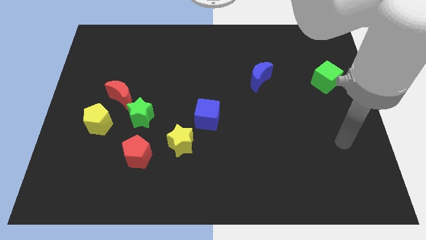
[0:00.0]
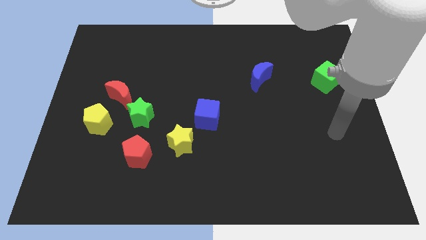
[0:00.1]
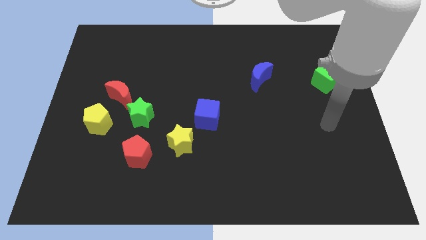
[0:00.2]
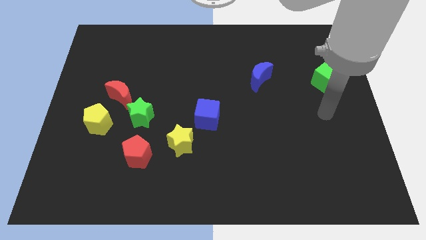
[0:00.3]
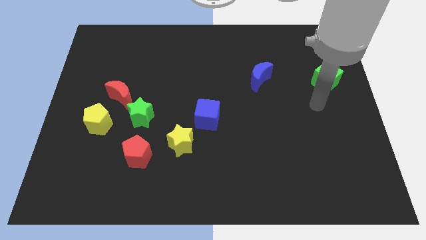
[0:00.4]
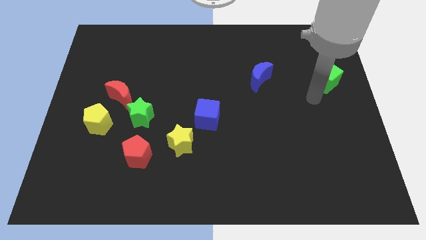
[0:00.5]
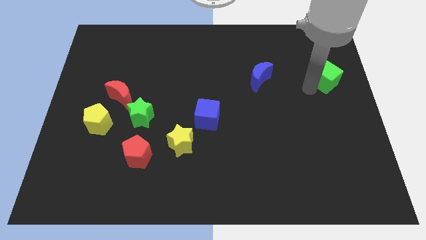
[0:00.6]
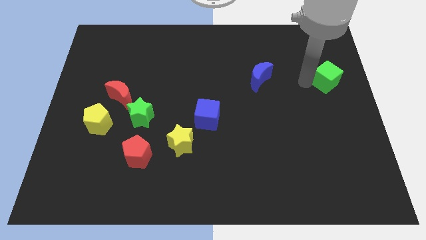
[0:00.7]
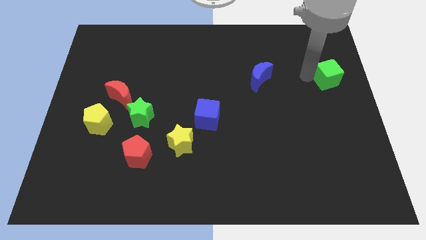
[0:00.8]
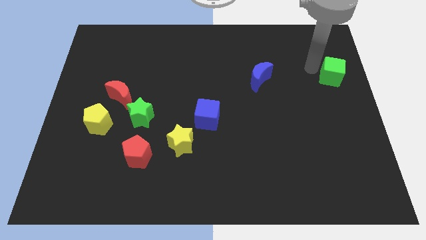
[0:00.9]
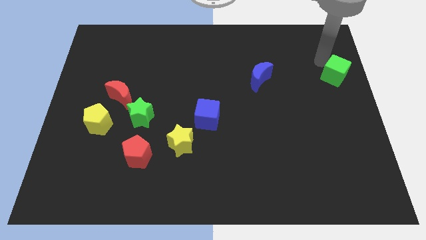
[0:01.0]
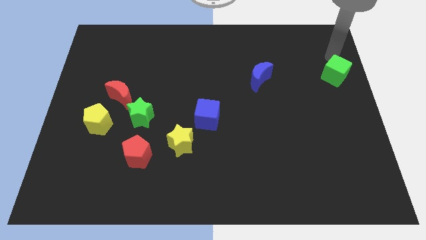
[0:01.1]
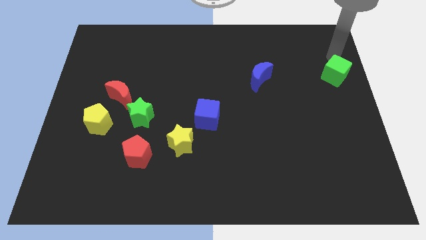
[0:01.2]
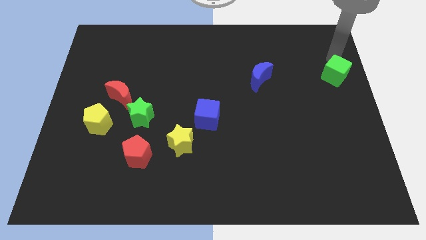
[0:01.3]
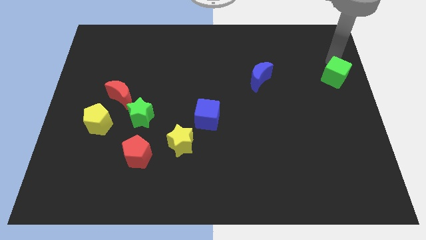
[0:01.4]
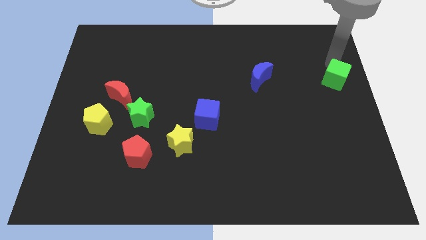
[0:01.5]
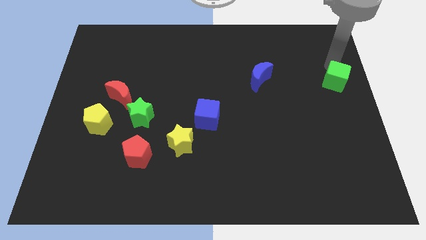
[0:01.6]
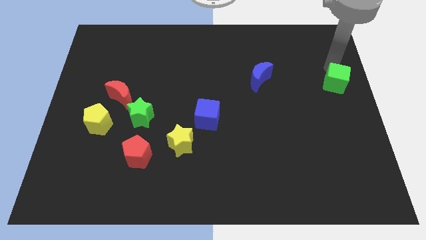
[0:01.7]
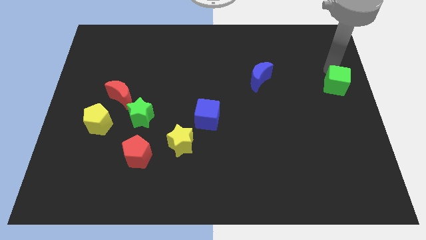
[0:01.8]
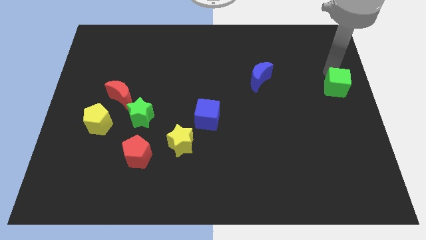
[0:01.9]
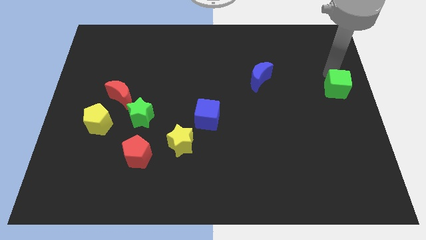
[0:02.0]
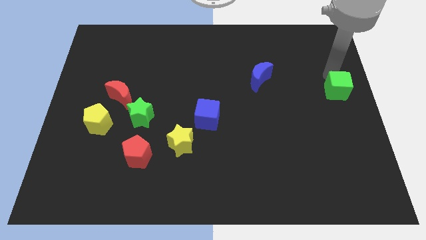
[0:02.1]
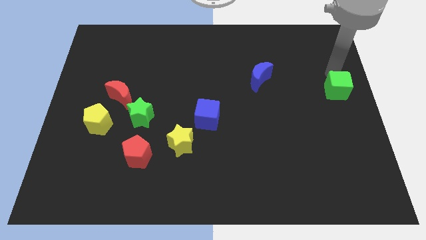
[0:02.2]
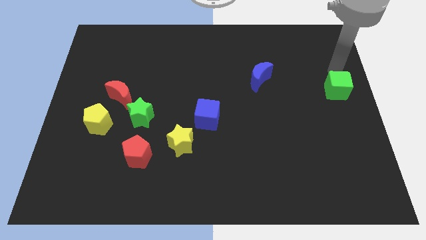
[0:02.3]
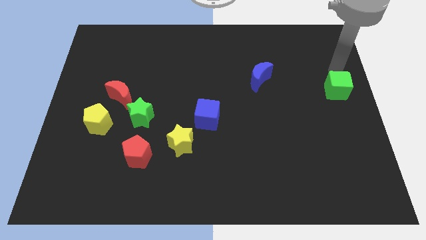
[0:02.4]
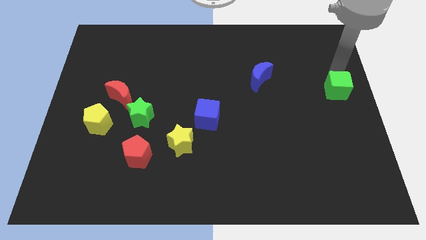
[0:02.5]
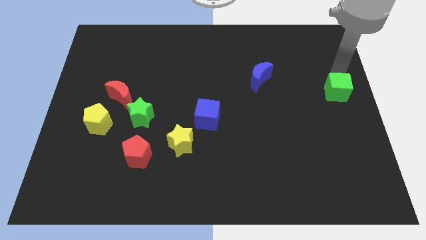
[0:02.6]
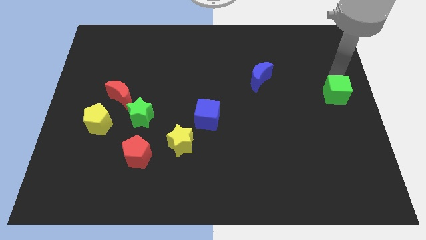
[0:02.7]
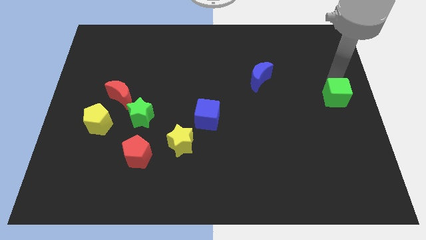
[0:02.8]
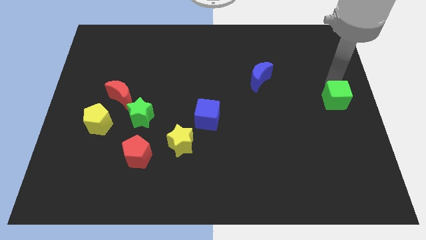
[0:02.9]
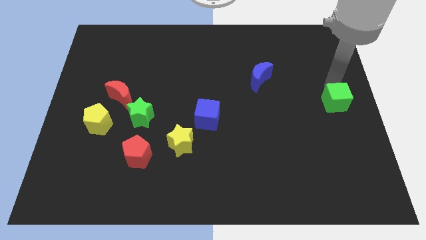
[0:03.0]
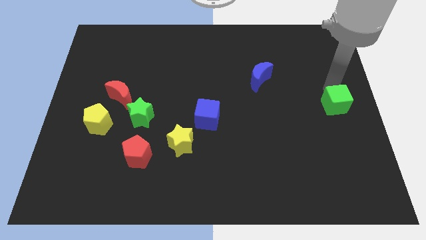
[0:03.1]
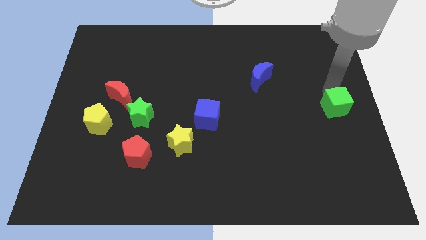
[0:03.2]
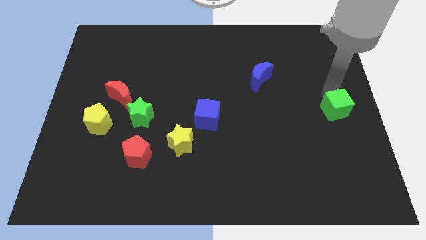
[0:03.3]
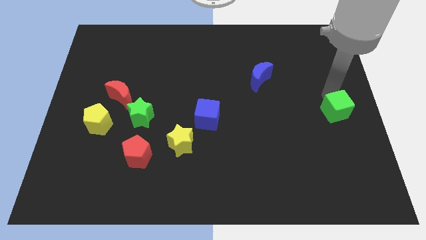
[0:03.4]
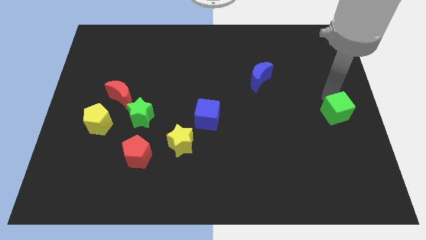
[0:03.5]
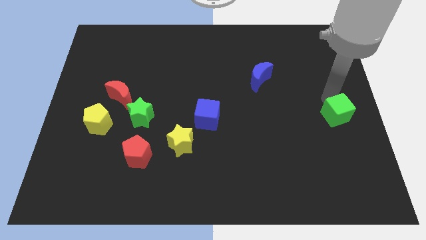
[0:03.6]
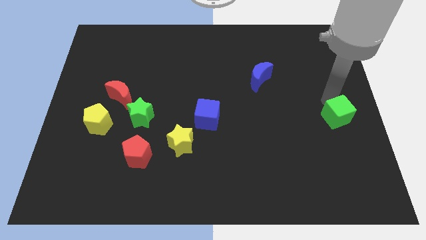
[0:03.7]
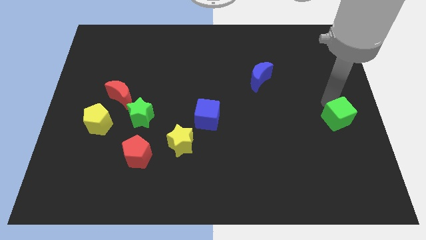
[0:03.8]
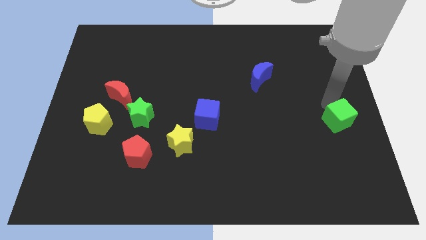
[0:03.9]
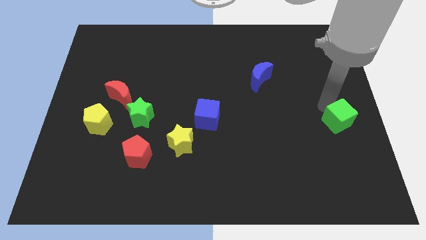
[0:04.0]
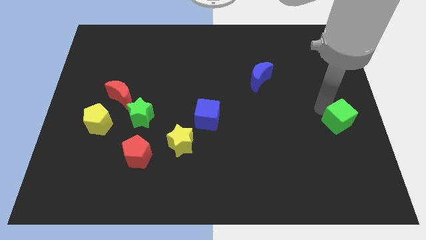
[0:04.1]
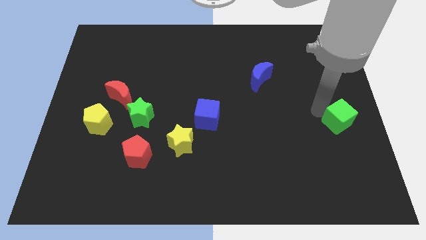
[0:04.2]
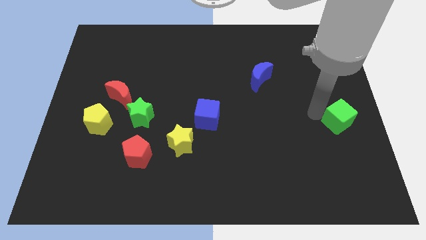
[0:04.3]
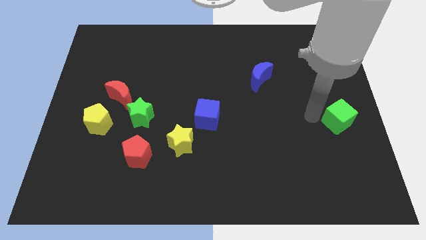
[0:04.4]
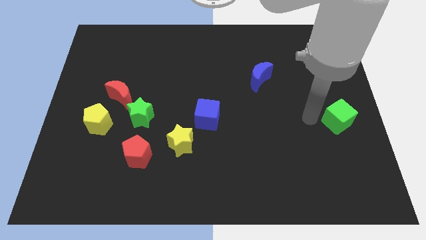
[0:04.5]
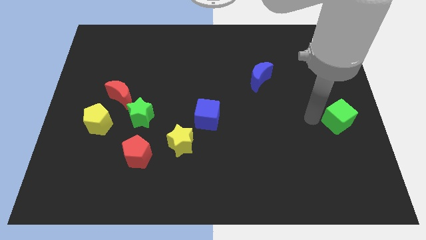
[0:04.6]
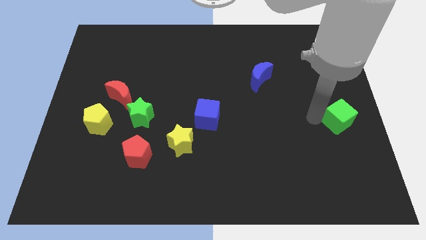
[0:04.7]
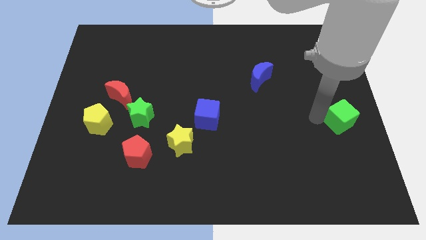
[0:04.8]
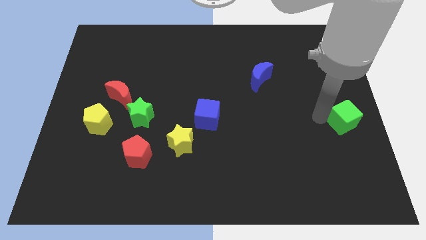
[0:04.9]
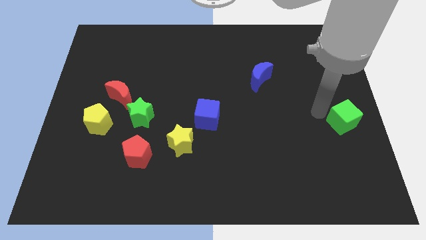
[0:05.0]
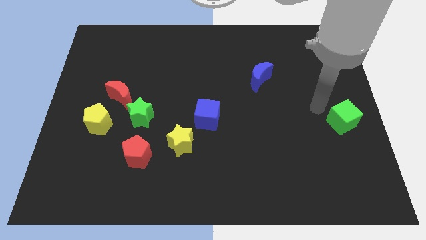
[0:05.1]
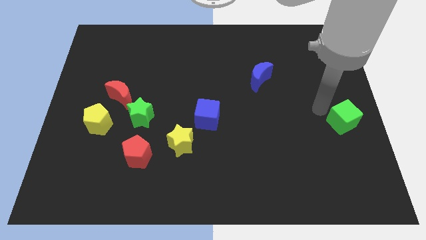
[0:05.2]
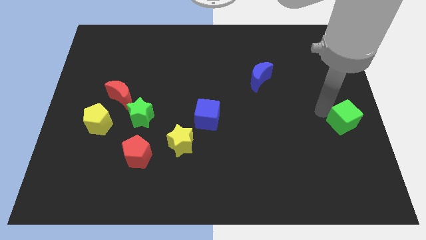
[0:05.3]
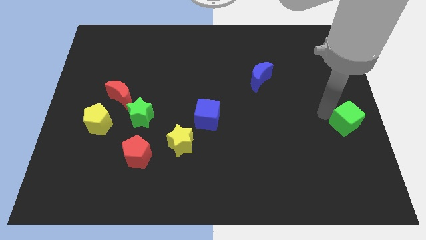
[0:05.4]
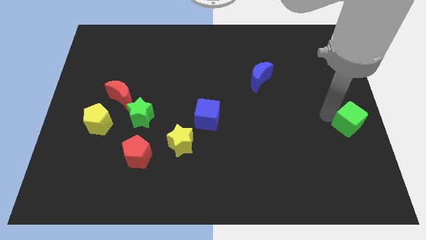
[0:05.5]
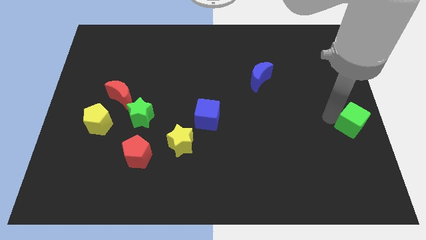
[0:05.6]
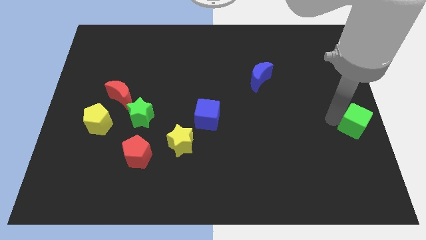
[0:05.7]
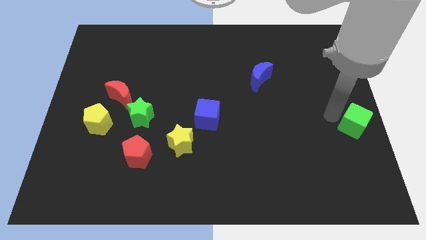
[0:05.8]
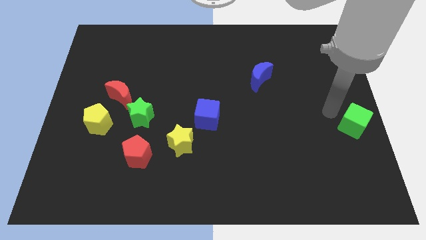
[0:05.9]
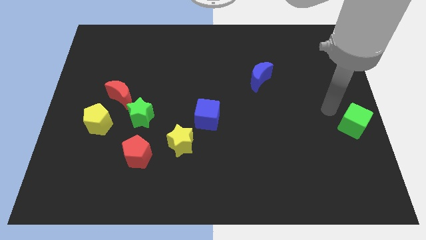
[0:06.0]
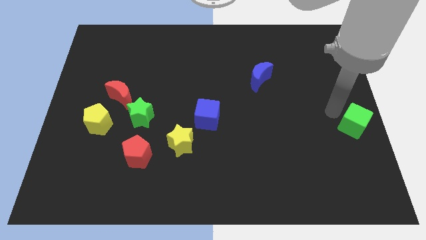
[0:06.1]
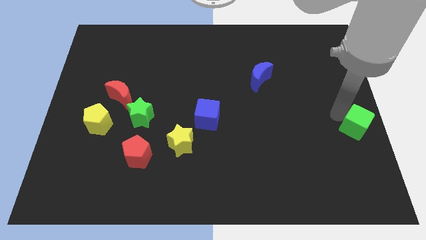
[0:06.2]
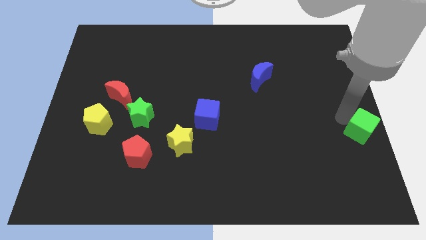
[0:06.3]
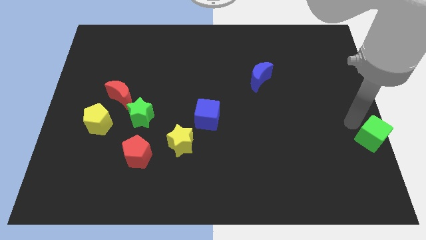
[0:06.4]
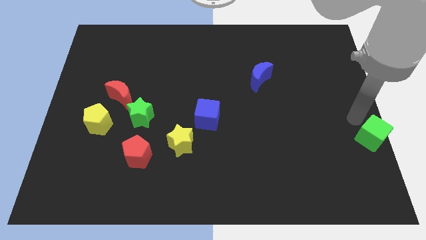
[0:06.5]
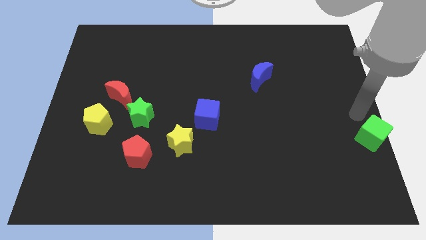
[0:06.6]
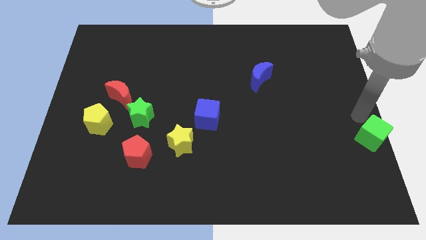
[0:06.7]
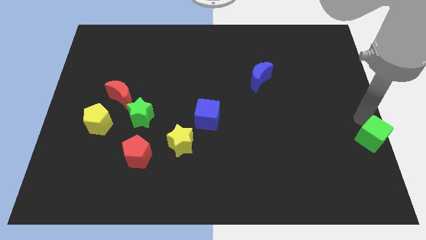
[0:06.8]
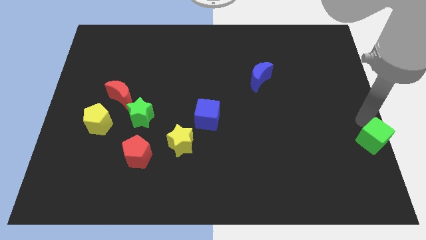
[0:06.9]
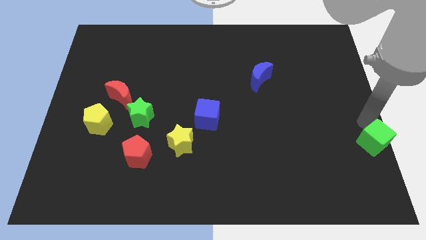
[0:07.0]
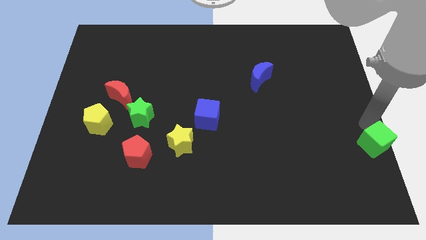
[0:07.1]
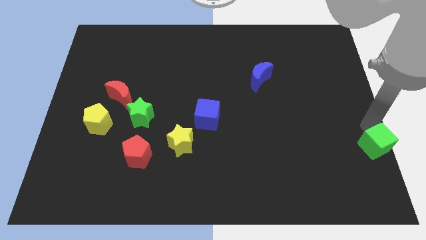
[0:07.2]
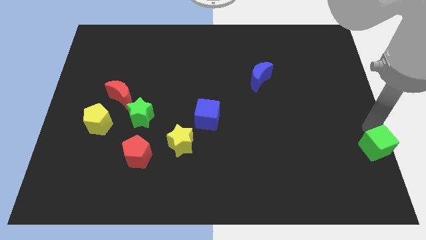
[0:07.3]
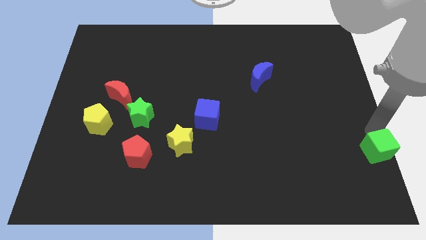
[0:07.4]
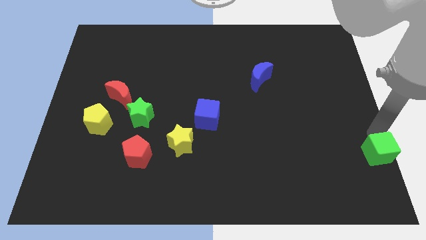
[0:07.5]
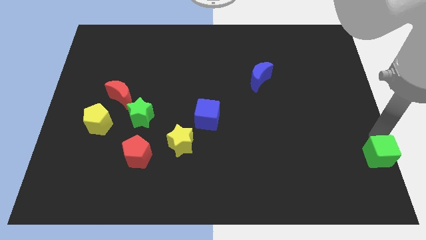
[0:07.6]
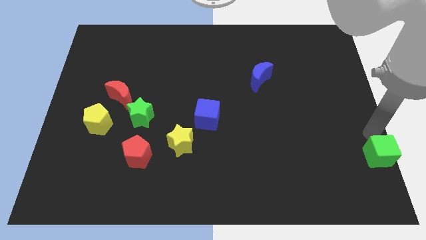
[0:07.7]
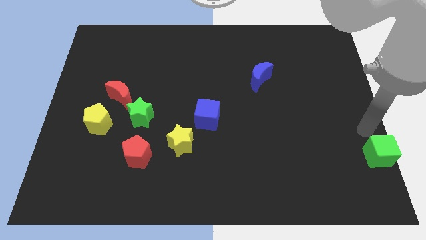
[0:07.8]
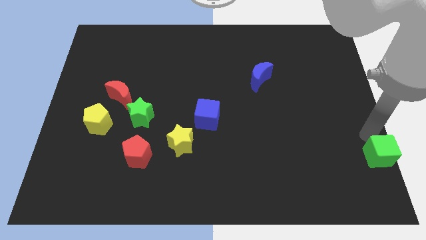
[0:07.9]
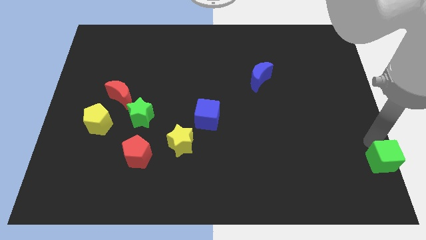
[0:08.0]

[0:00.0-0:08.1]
move the green cube to the bottom right
